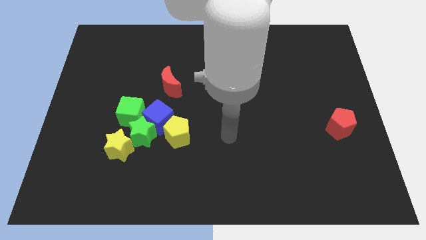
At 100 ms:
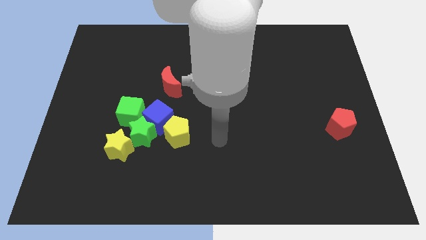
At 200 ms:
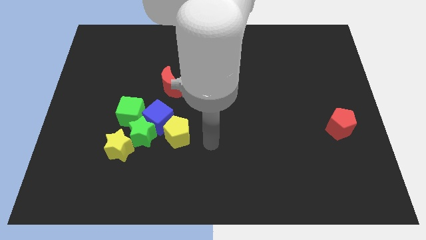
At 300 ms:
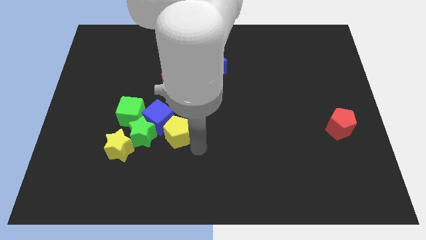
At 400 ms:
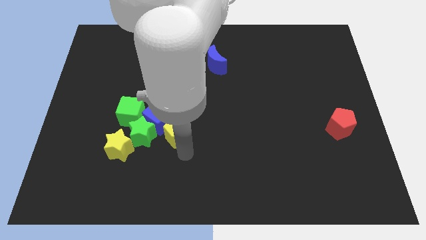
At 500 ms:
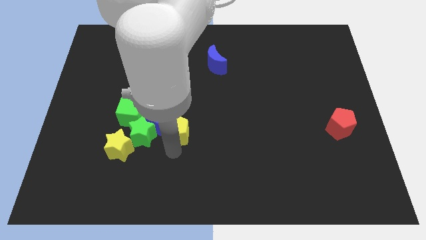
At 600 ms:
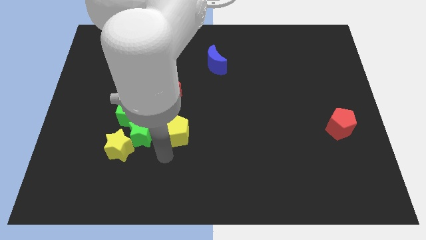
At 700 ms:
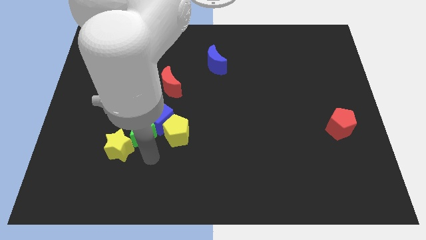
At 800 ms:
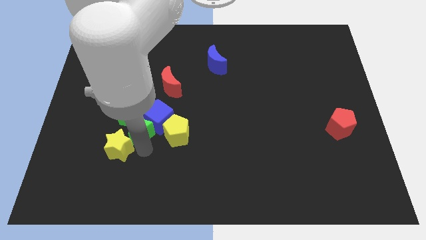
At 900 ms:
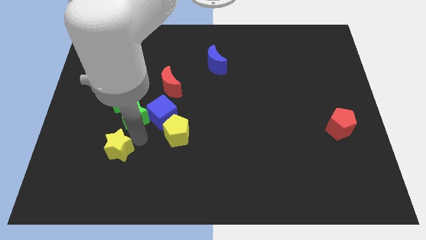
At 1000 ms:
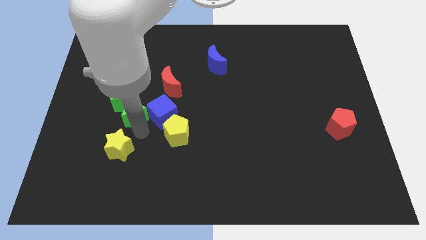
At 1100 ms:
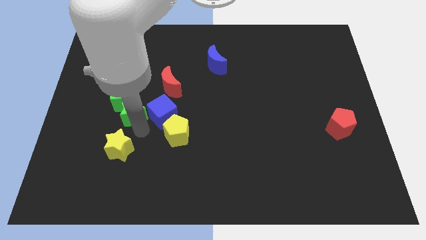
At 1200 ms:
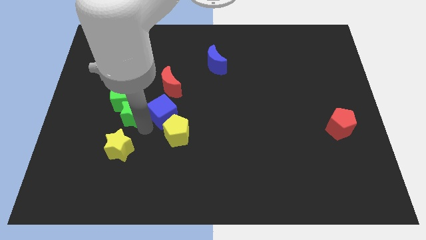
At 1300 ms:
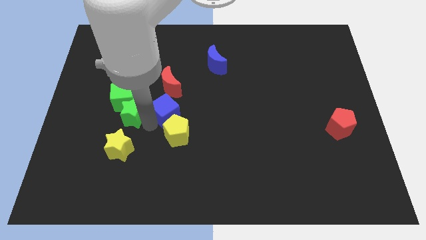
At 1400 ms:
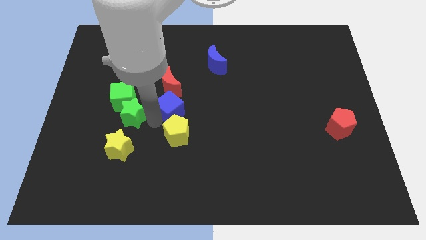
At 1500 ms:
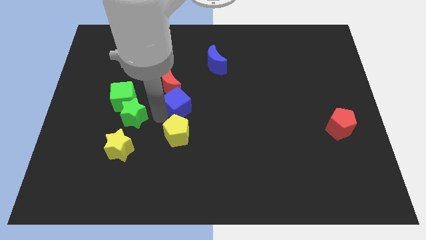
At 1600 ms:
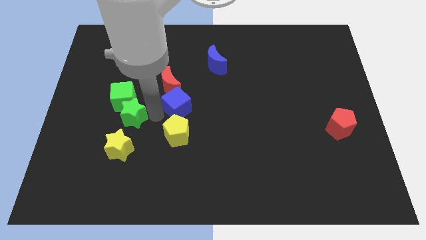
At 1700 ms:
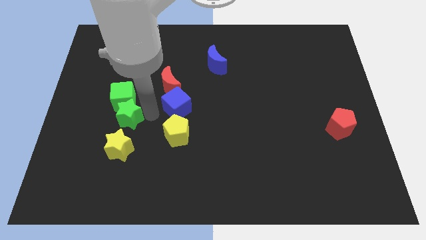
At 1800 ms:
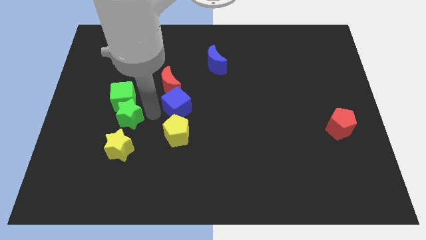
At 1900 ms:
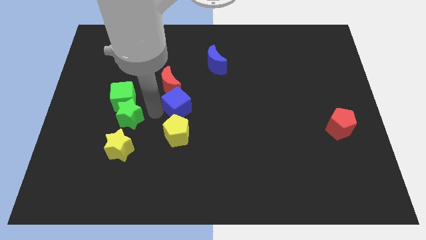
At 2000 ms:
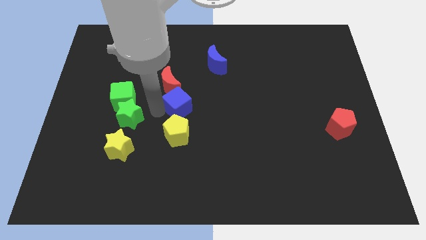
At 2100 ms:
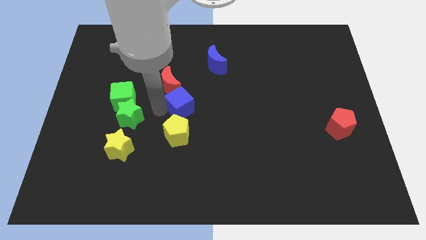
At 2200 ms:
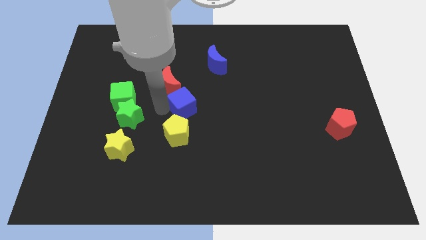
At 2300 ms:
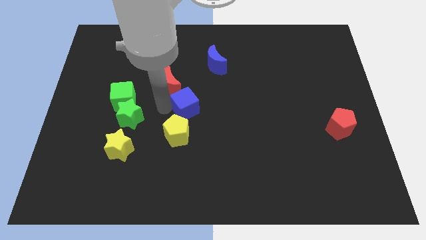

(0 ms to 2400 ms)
pull the blue cube apart from the group of blocks

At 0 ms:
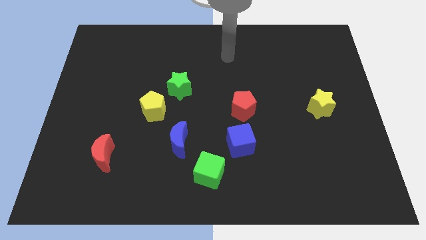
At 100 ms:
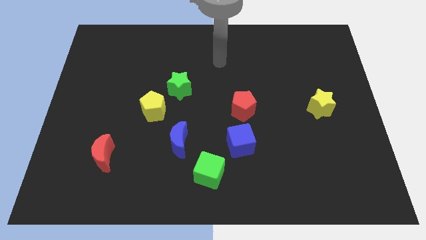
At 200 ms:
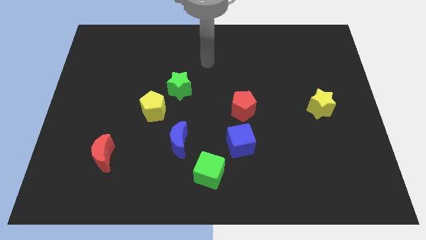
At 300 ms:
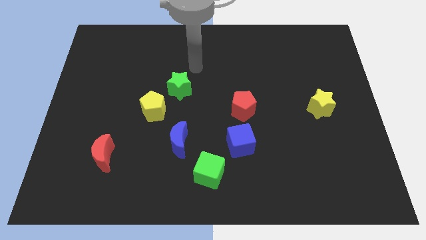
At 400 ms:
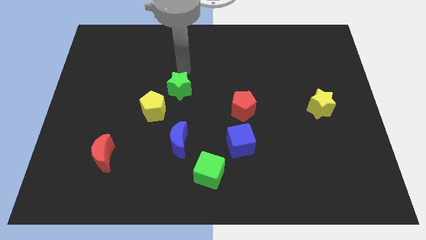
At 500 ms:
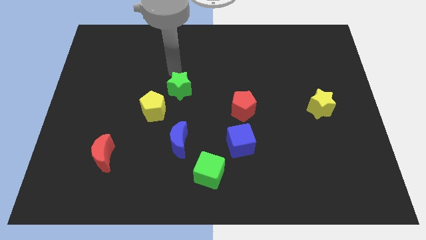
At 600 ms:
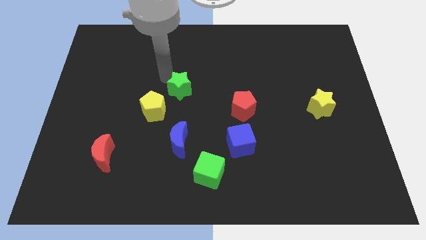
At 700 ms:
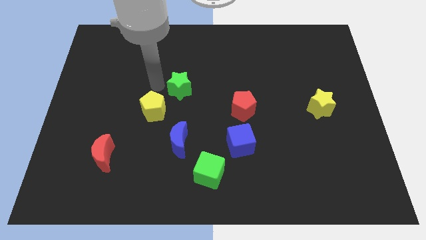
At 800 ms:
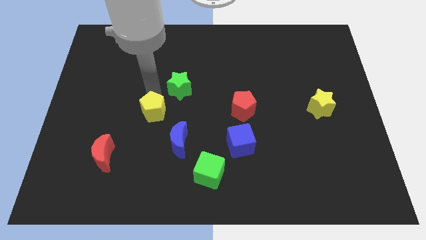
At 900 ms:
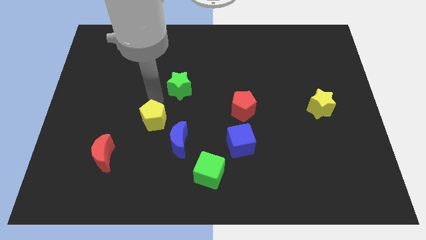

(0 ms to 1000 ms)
pull the green star apart from the yellow pentagon

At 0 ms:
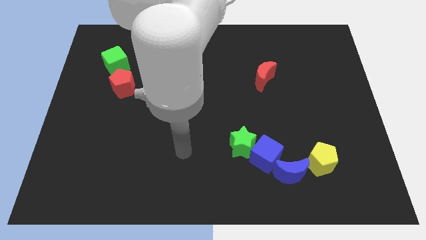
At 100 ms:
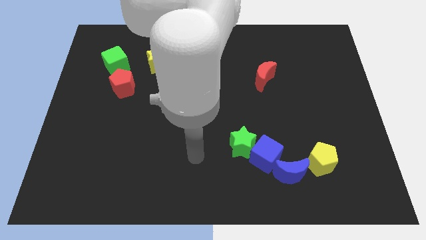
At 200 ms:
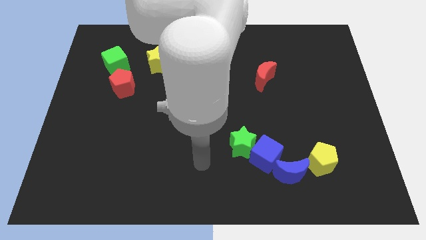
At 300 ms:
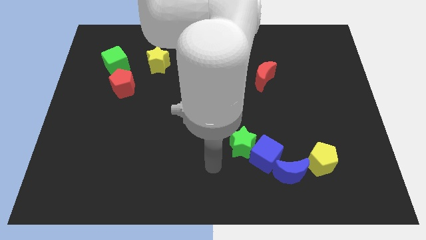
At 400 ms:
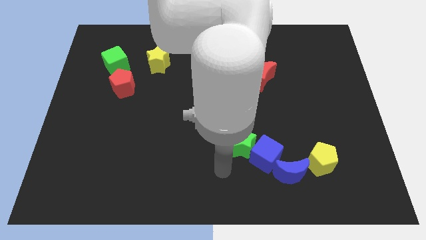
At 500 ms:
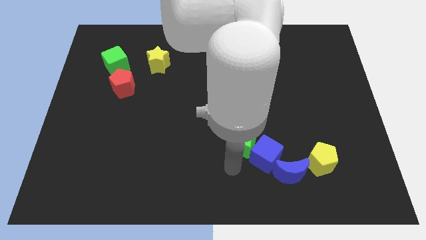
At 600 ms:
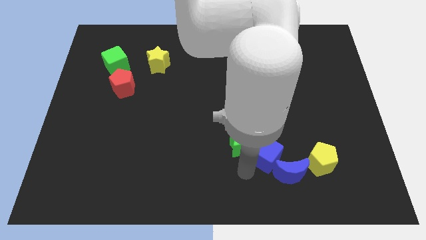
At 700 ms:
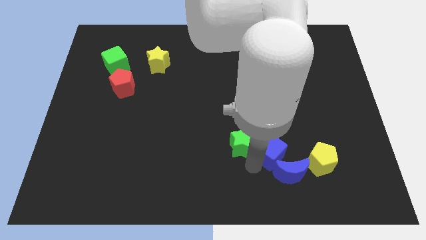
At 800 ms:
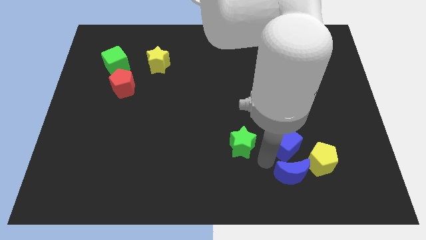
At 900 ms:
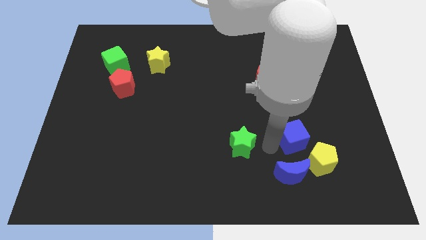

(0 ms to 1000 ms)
pull the green star apart from the blue cube

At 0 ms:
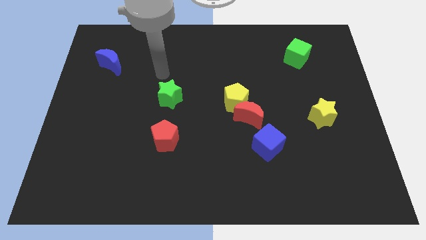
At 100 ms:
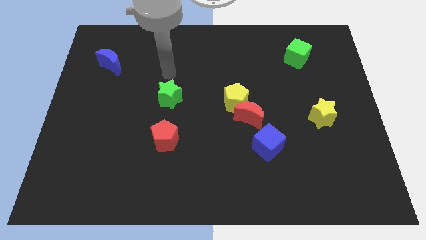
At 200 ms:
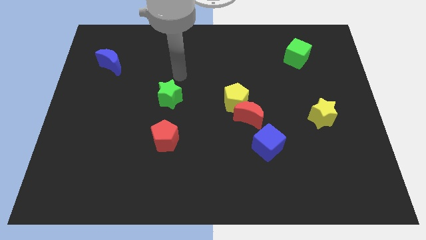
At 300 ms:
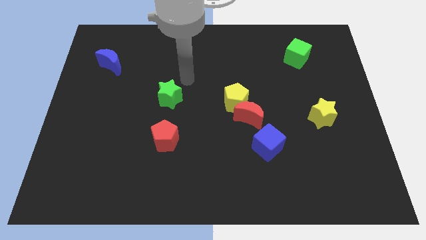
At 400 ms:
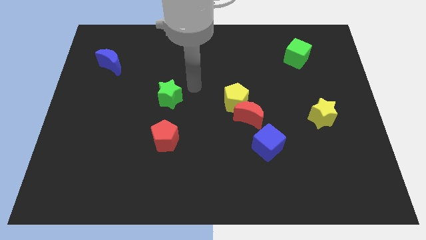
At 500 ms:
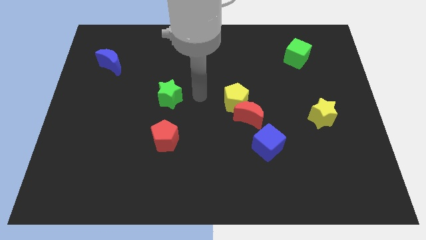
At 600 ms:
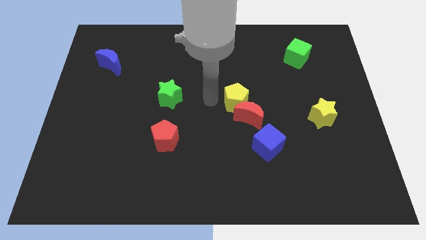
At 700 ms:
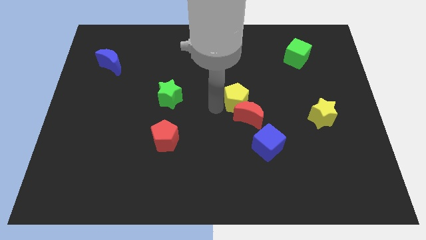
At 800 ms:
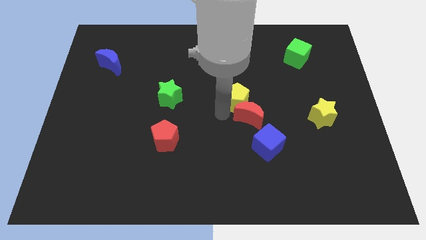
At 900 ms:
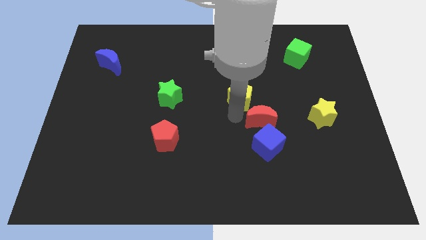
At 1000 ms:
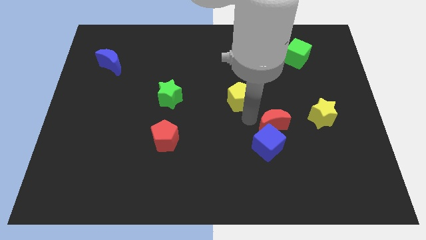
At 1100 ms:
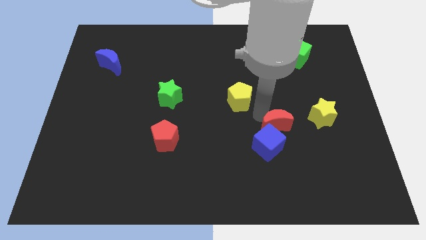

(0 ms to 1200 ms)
move the yellow pentagon away from the red moon

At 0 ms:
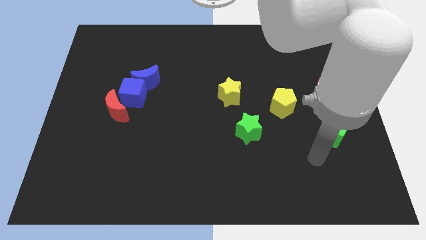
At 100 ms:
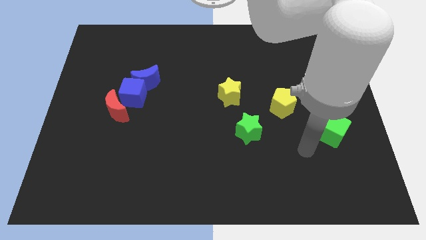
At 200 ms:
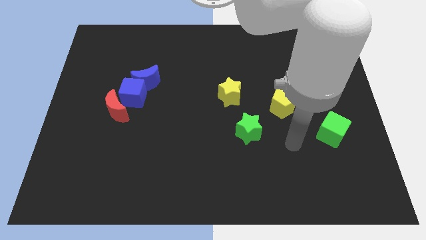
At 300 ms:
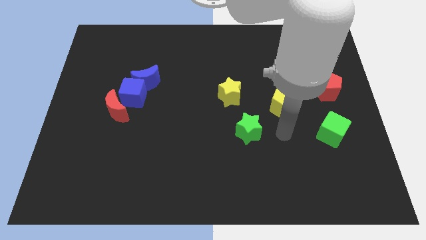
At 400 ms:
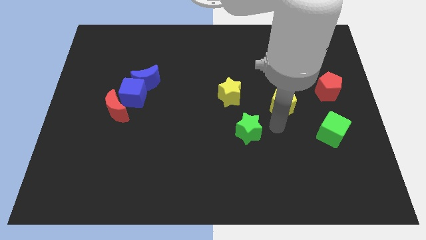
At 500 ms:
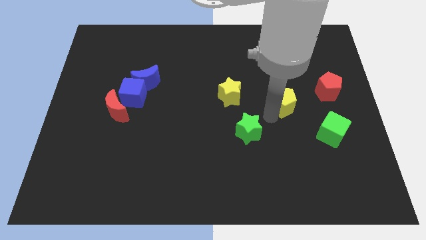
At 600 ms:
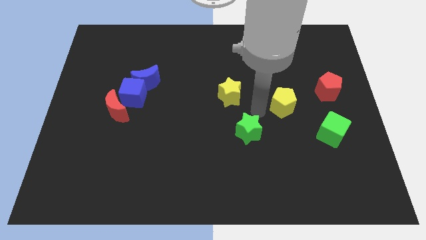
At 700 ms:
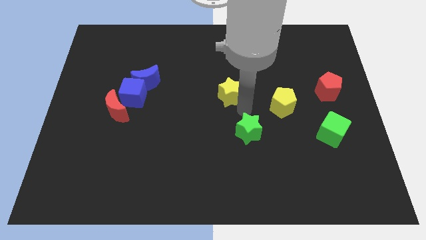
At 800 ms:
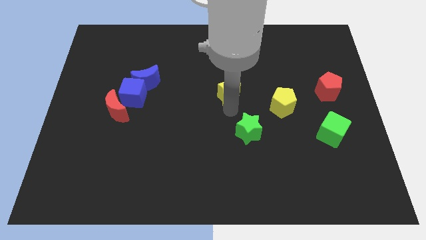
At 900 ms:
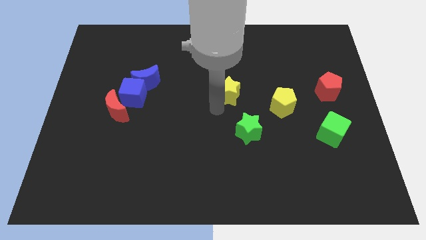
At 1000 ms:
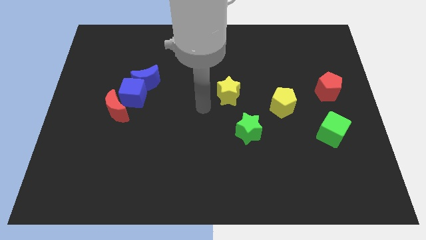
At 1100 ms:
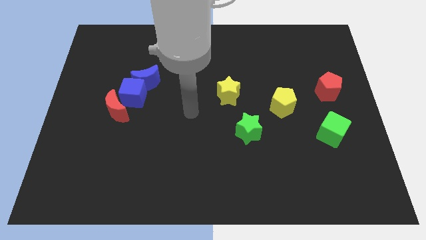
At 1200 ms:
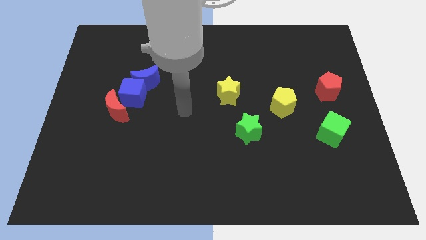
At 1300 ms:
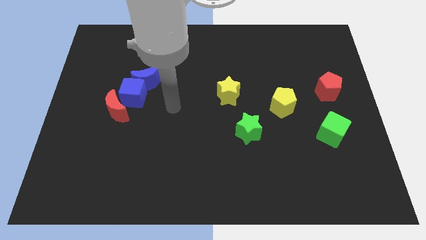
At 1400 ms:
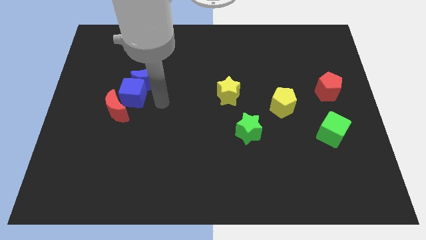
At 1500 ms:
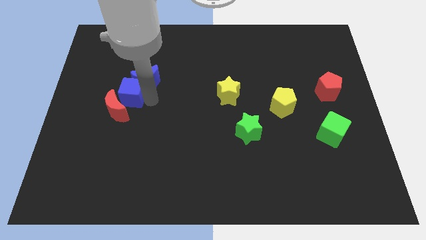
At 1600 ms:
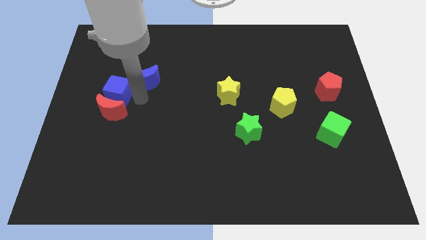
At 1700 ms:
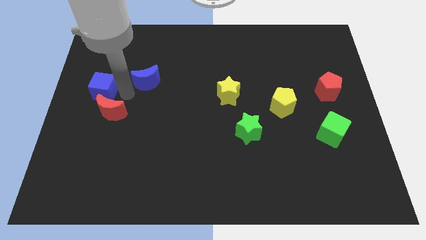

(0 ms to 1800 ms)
move the blue moon away from the blue cube

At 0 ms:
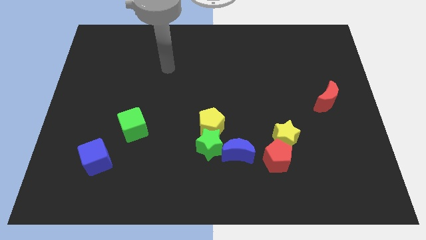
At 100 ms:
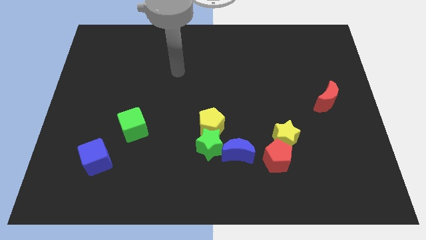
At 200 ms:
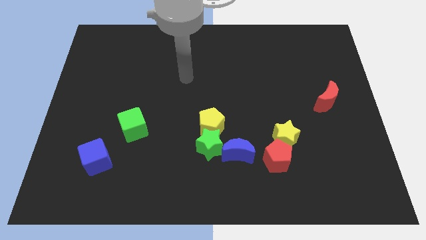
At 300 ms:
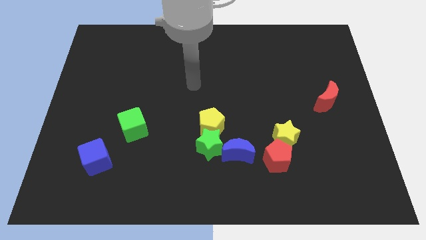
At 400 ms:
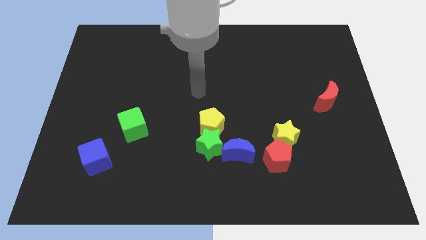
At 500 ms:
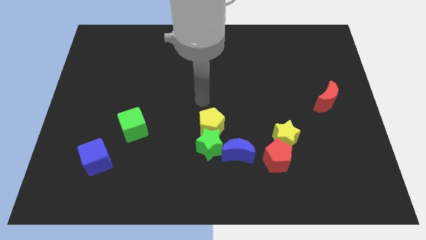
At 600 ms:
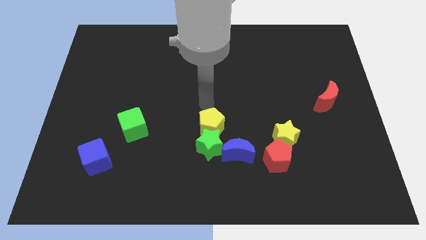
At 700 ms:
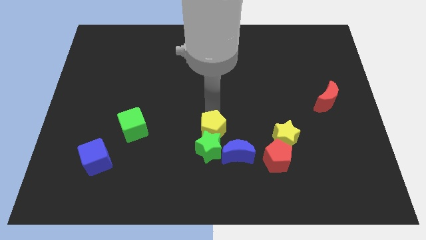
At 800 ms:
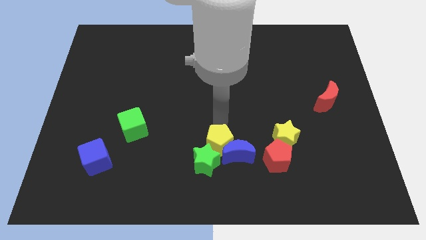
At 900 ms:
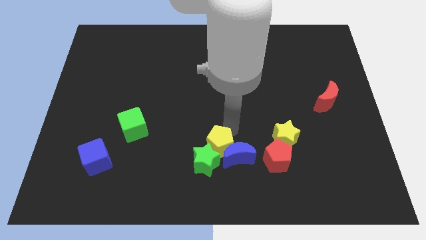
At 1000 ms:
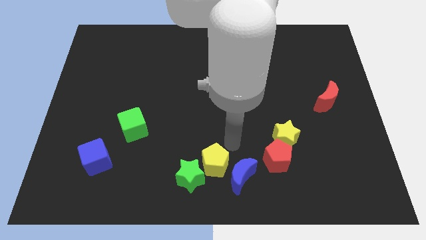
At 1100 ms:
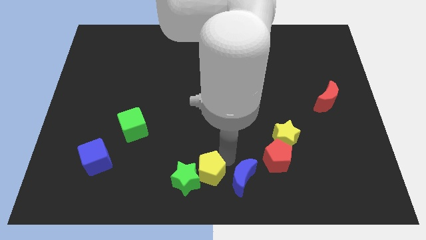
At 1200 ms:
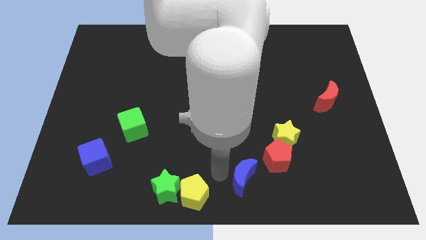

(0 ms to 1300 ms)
separate the green star from the yellow pentagon and blue moon

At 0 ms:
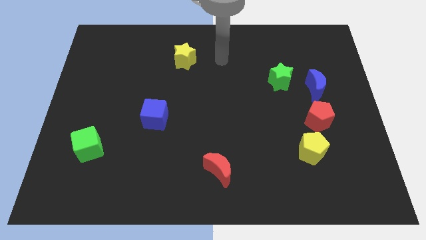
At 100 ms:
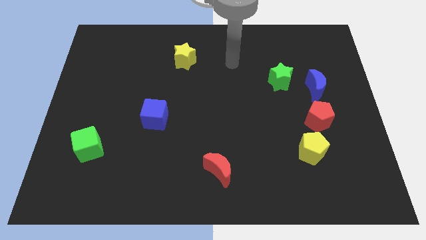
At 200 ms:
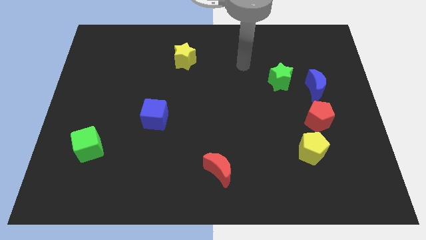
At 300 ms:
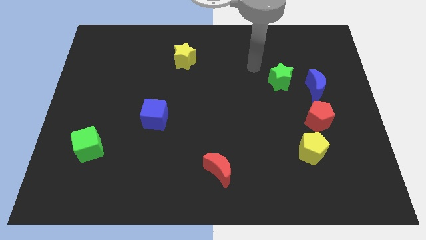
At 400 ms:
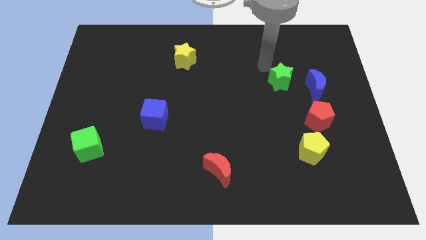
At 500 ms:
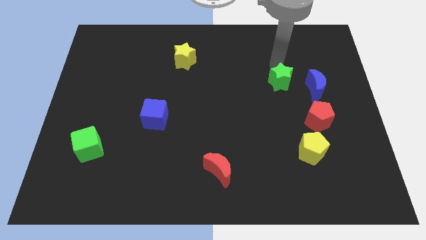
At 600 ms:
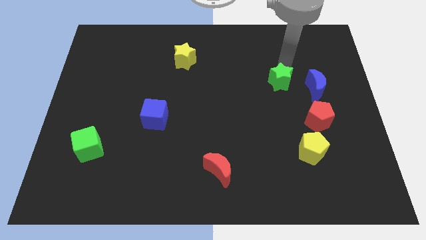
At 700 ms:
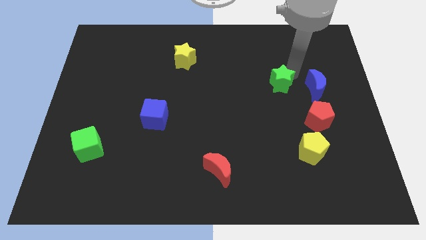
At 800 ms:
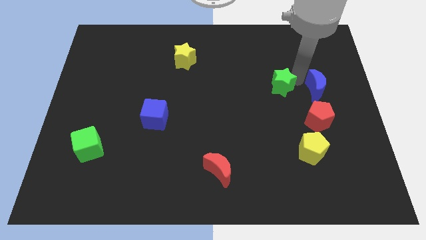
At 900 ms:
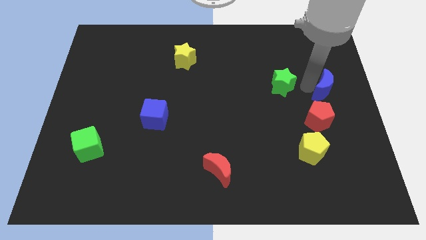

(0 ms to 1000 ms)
separate the green star from the blue moon
